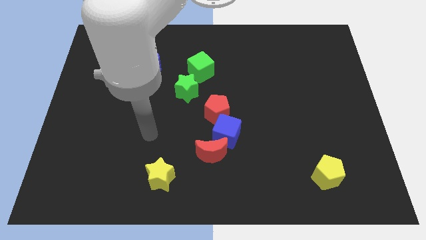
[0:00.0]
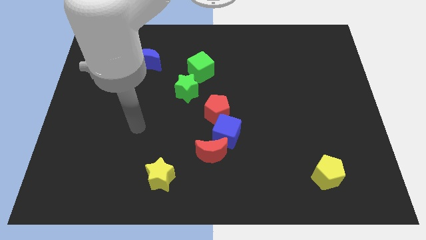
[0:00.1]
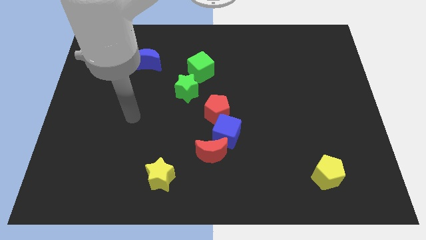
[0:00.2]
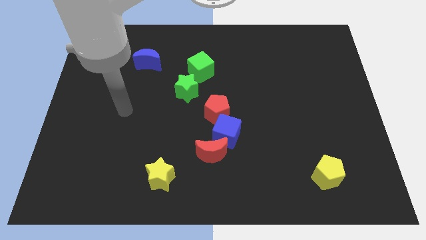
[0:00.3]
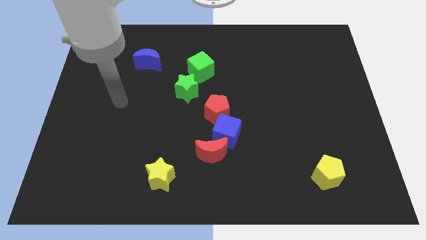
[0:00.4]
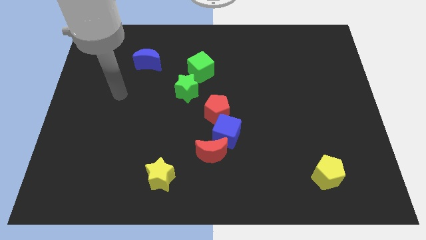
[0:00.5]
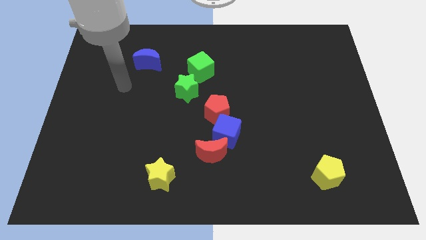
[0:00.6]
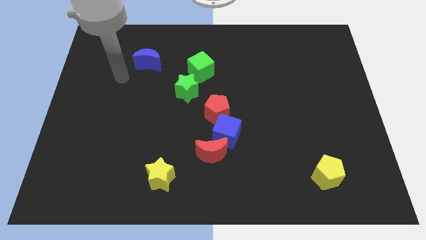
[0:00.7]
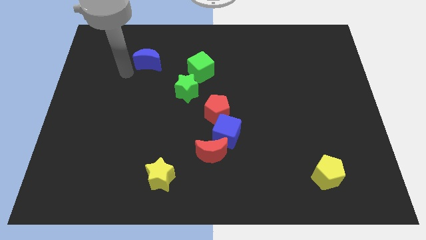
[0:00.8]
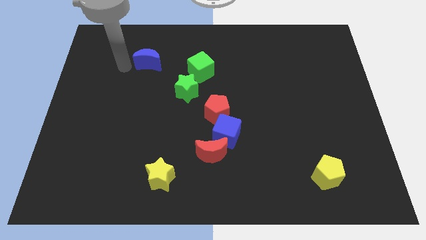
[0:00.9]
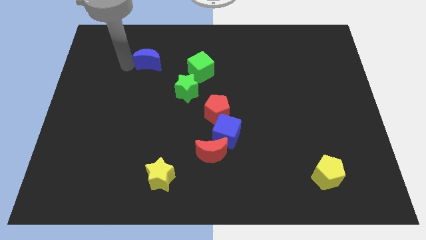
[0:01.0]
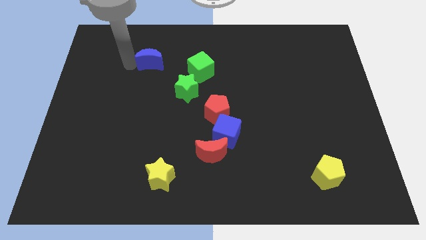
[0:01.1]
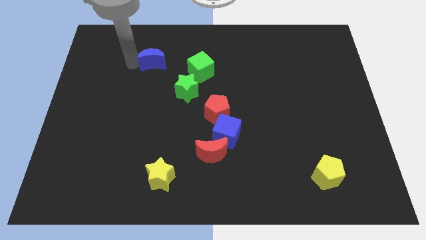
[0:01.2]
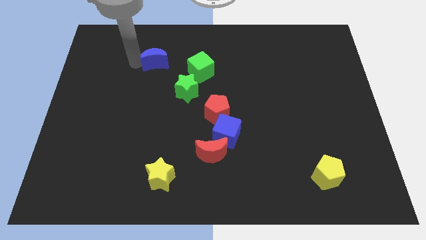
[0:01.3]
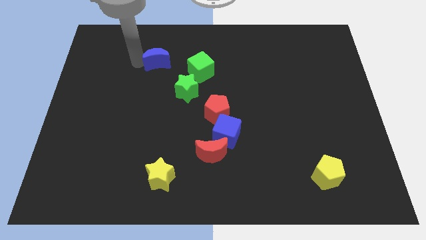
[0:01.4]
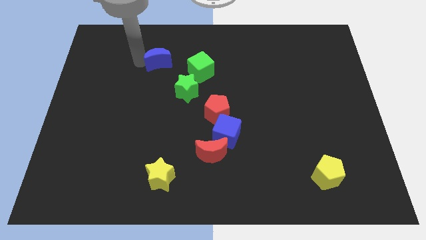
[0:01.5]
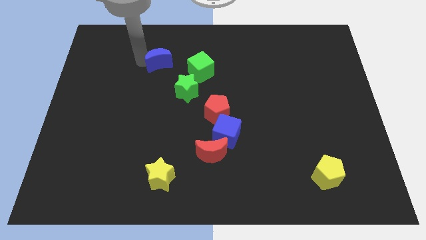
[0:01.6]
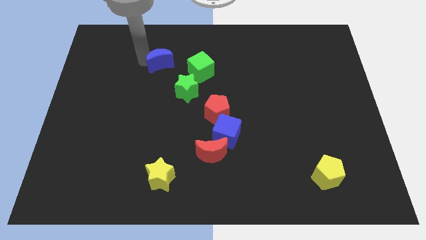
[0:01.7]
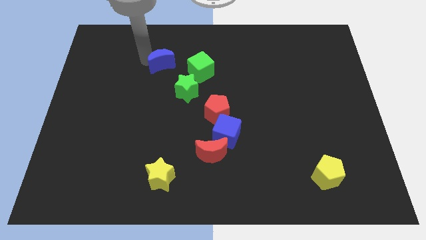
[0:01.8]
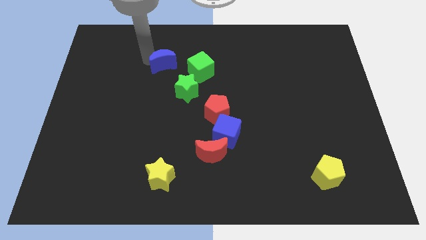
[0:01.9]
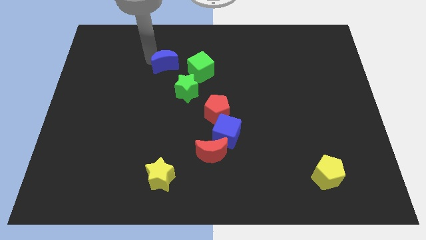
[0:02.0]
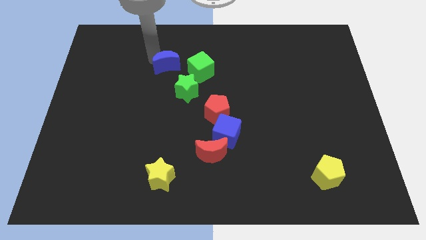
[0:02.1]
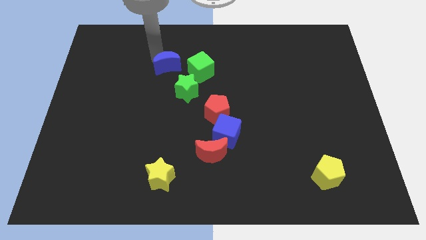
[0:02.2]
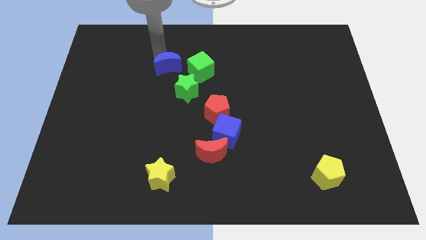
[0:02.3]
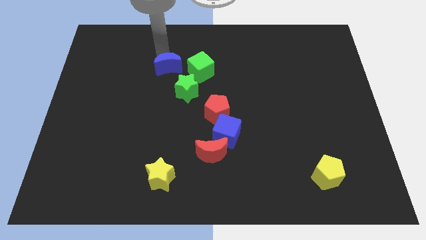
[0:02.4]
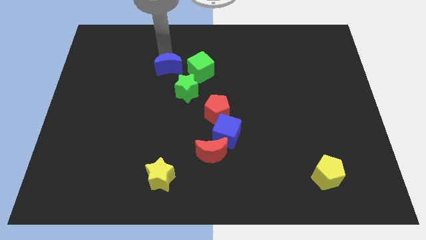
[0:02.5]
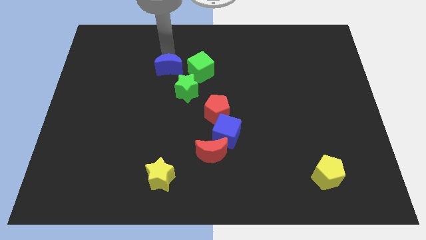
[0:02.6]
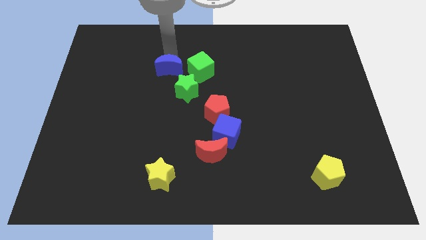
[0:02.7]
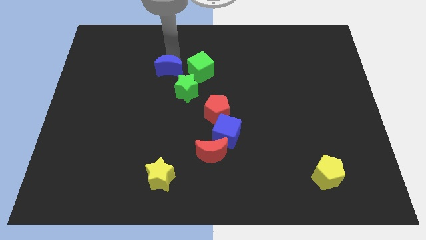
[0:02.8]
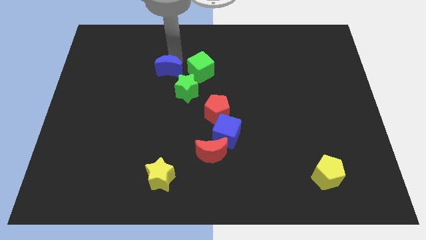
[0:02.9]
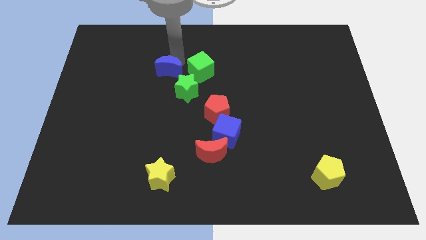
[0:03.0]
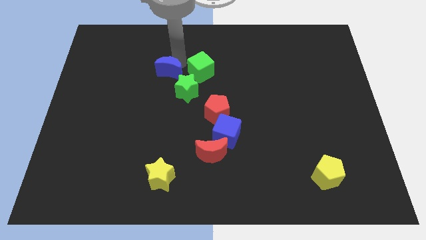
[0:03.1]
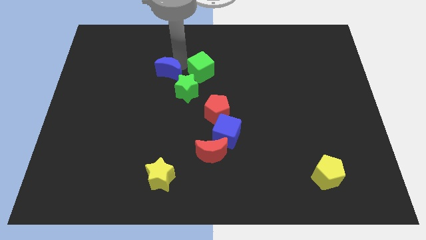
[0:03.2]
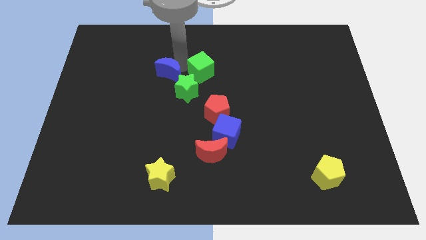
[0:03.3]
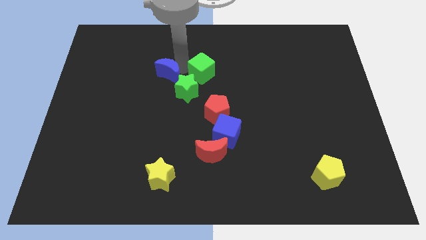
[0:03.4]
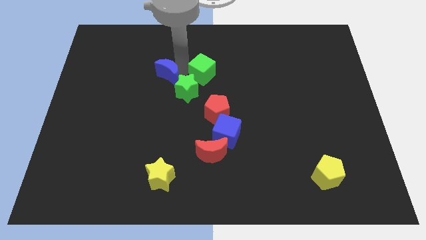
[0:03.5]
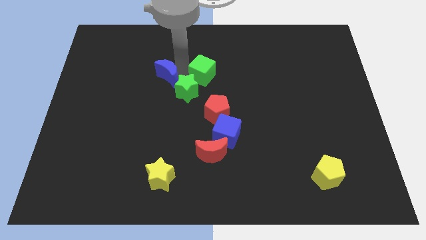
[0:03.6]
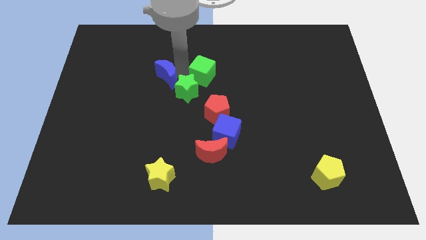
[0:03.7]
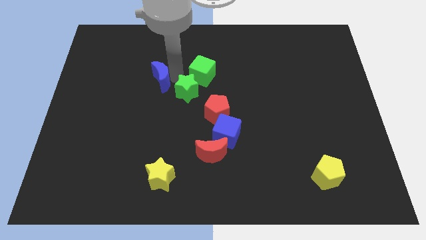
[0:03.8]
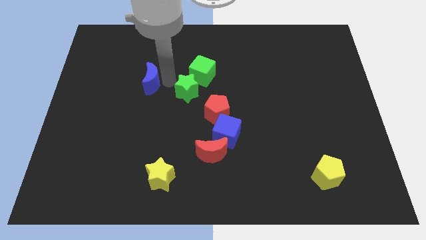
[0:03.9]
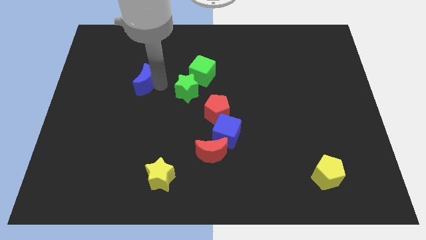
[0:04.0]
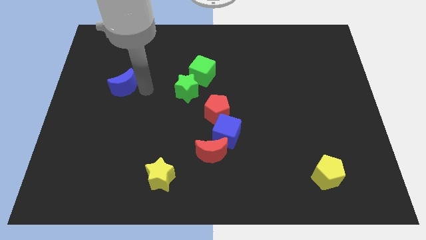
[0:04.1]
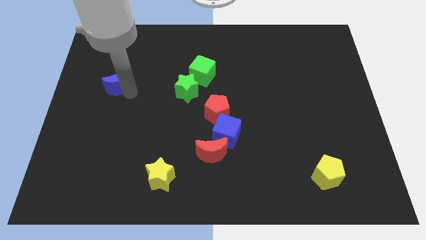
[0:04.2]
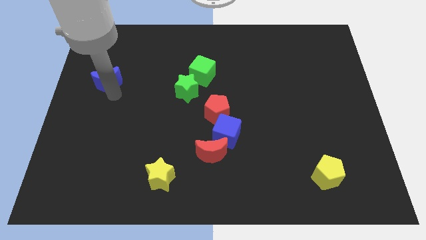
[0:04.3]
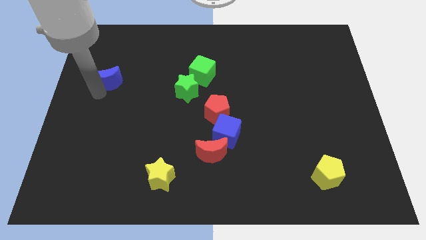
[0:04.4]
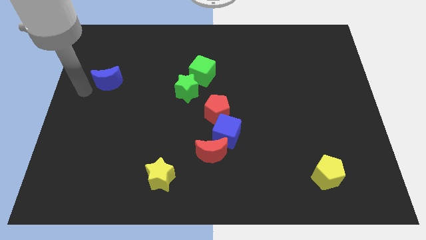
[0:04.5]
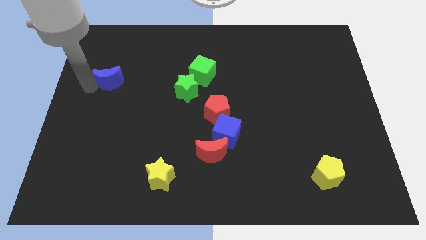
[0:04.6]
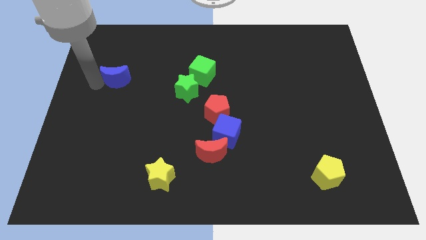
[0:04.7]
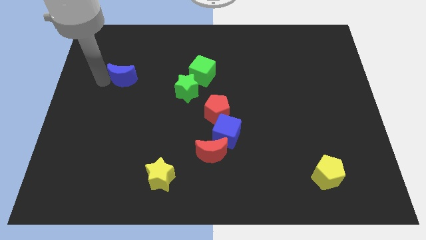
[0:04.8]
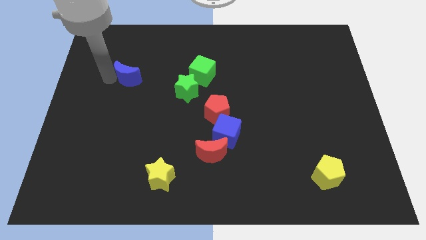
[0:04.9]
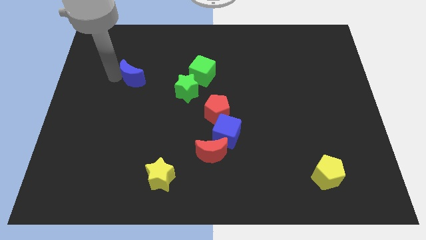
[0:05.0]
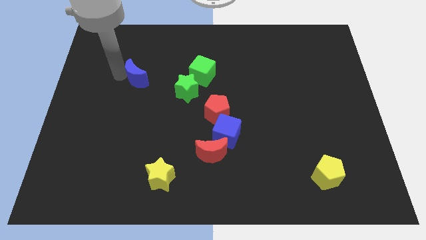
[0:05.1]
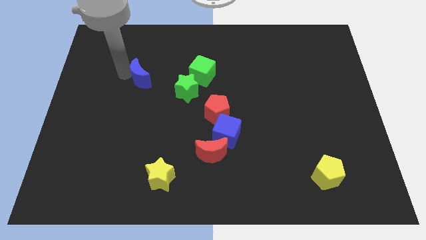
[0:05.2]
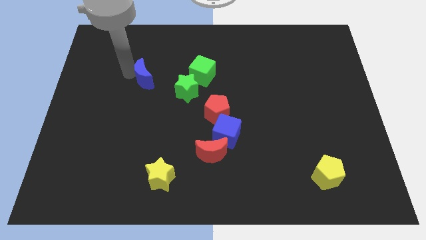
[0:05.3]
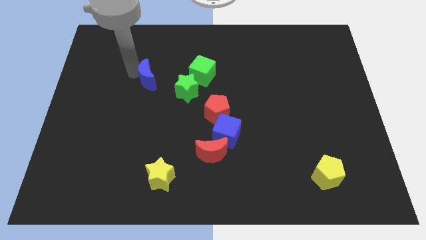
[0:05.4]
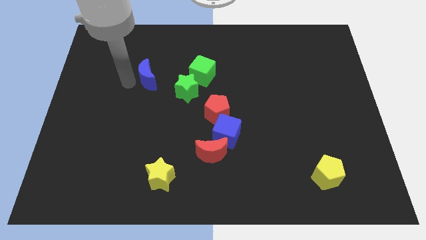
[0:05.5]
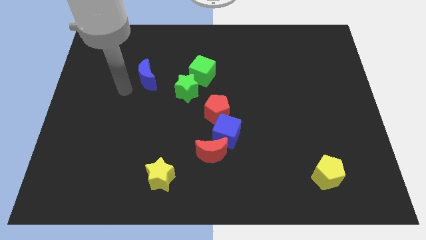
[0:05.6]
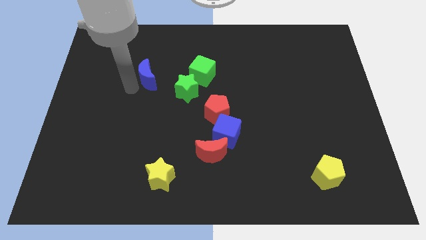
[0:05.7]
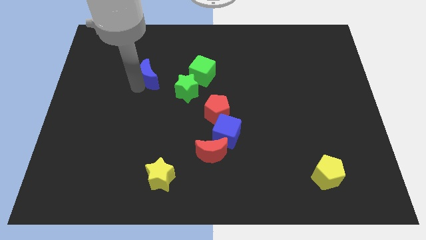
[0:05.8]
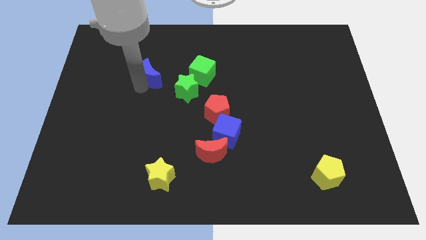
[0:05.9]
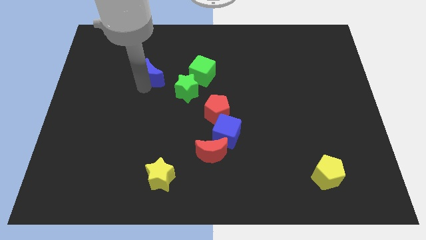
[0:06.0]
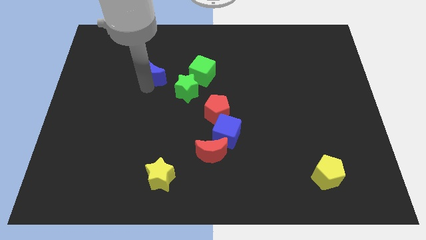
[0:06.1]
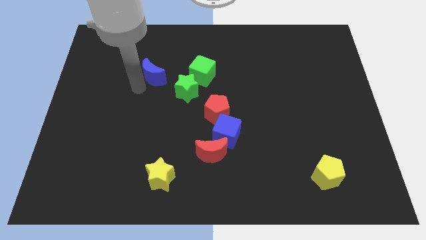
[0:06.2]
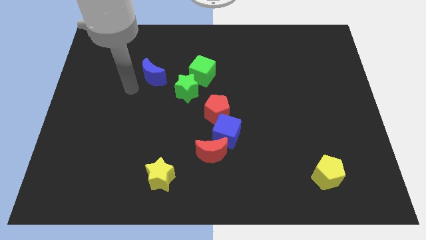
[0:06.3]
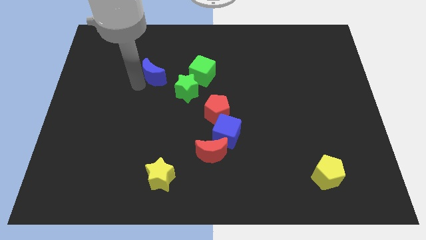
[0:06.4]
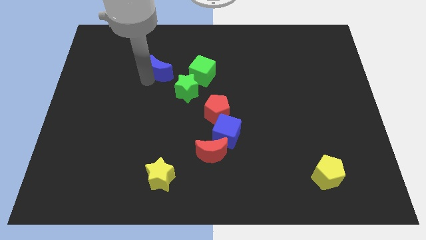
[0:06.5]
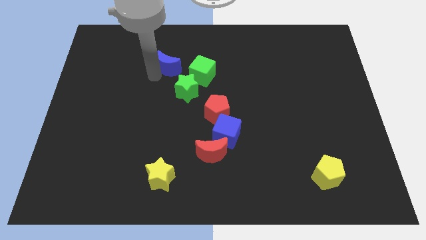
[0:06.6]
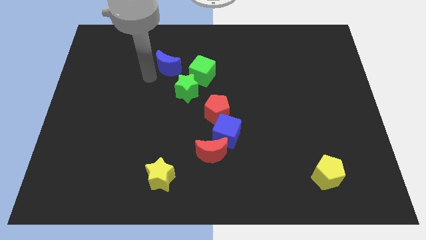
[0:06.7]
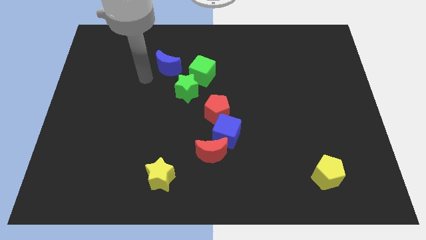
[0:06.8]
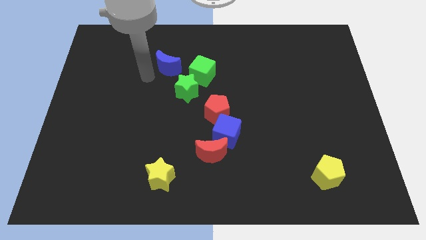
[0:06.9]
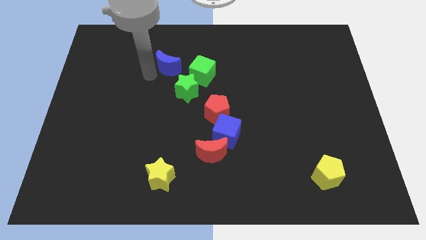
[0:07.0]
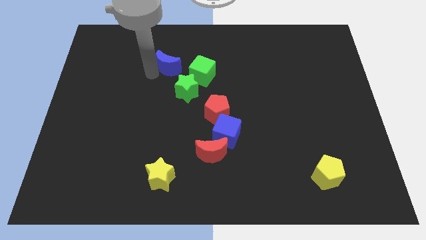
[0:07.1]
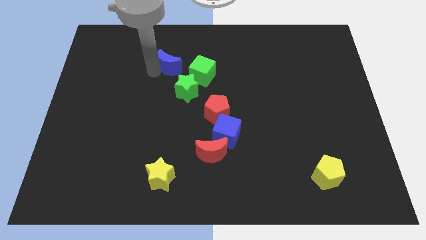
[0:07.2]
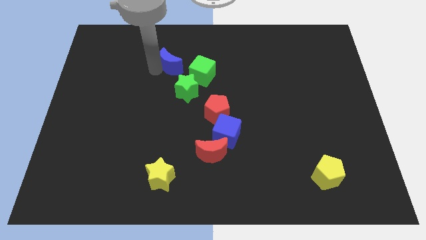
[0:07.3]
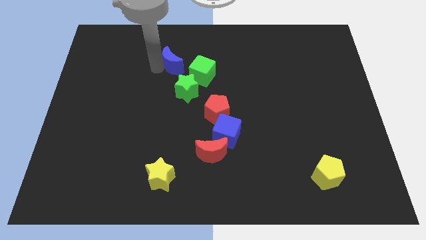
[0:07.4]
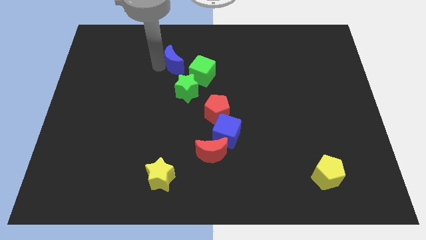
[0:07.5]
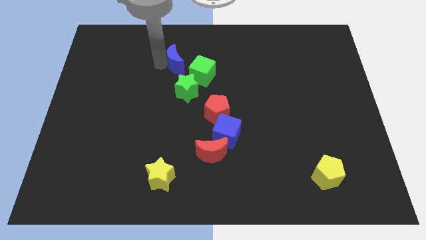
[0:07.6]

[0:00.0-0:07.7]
move the blue moon a bit right

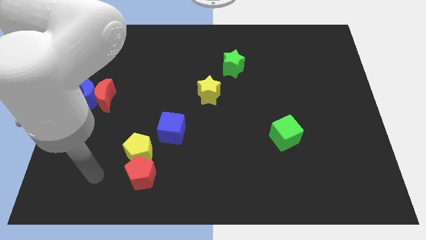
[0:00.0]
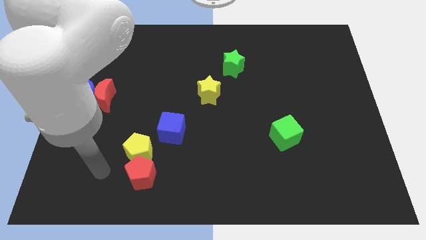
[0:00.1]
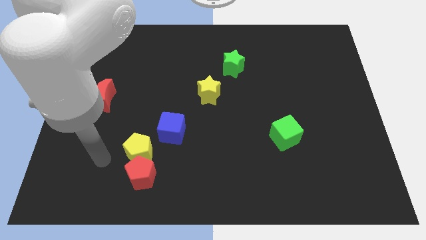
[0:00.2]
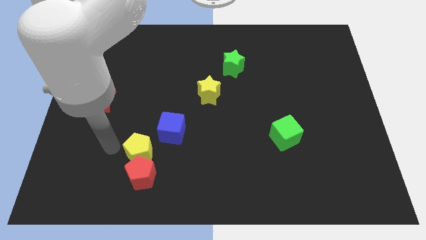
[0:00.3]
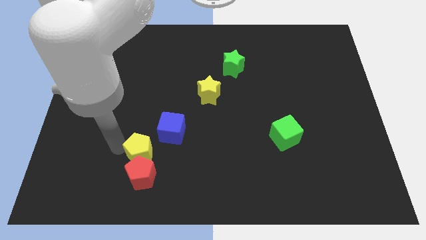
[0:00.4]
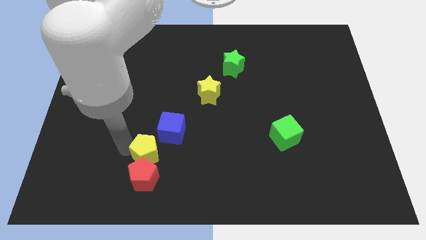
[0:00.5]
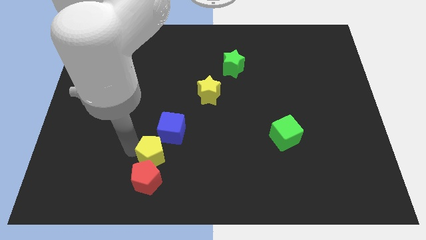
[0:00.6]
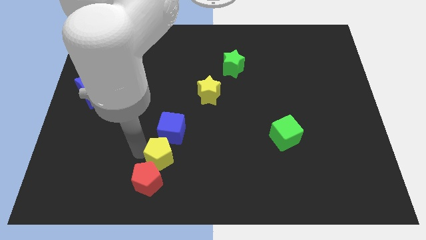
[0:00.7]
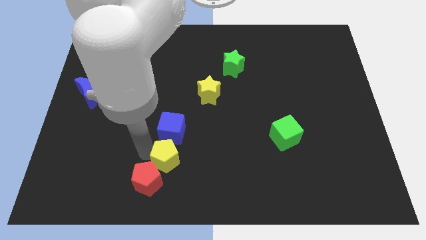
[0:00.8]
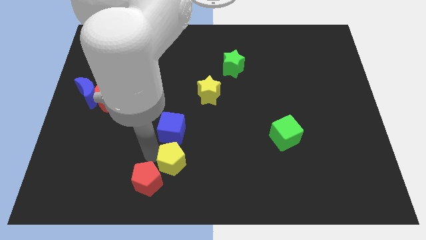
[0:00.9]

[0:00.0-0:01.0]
move the yellow pentagon right a little bit
